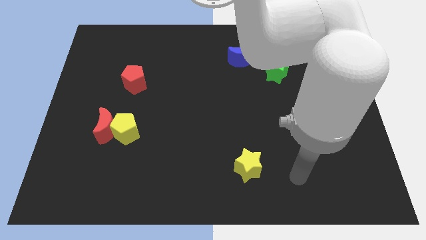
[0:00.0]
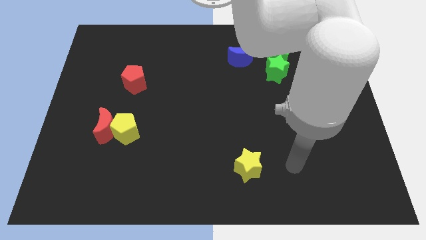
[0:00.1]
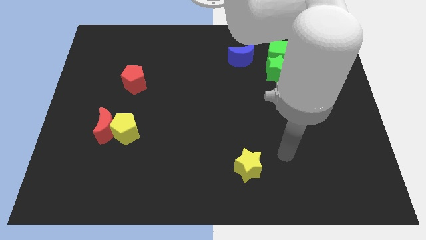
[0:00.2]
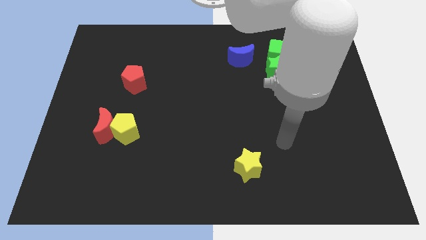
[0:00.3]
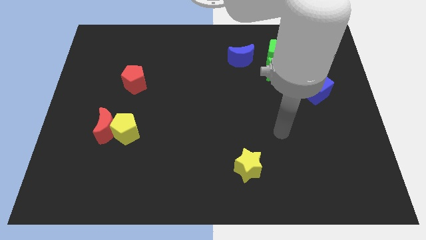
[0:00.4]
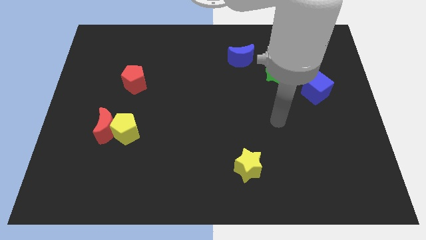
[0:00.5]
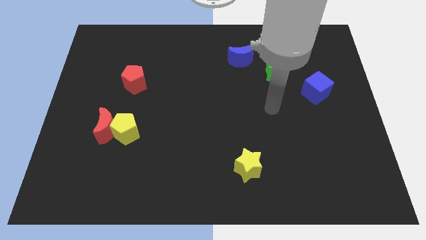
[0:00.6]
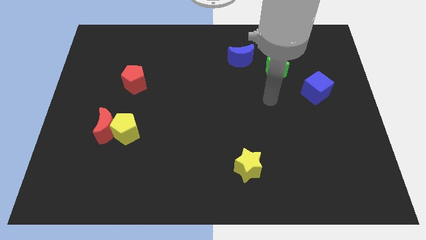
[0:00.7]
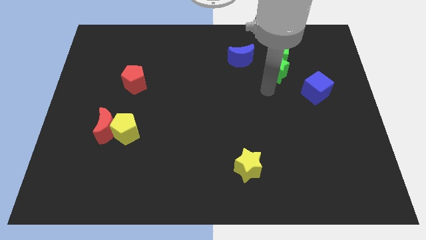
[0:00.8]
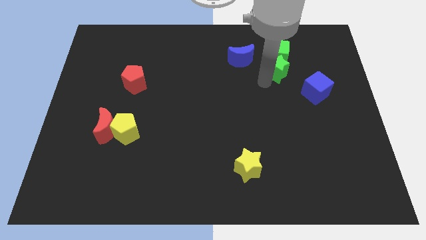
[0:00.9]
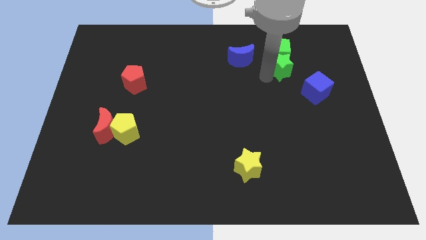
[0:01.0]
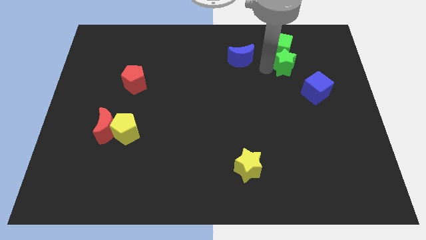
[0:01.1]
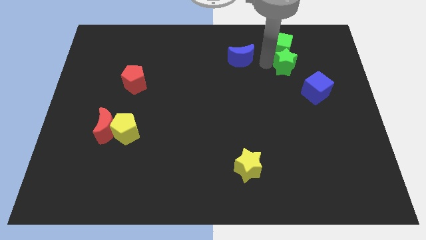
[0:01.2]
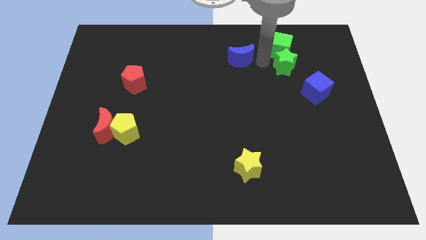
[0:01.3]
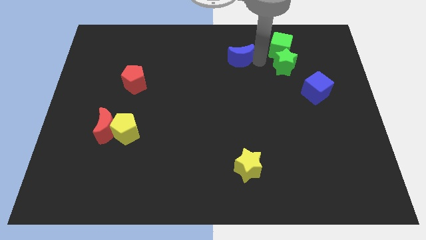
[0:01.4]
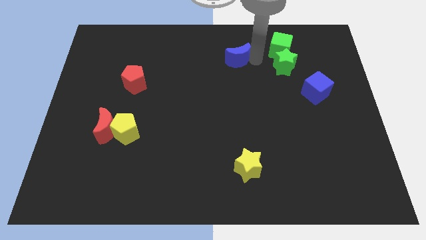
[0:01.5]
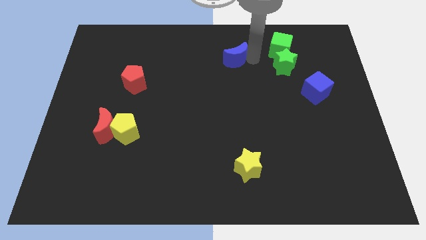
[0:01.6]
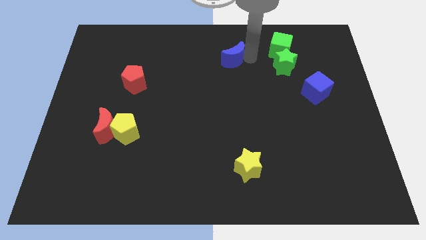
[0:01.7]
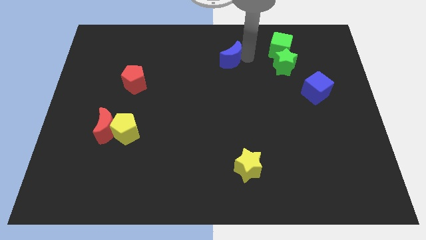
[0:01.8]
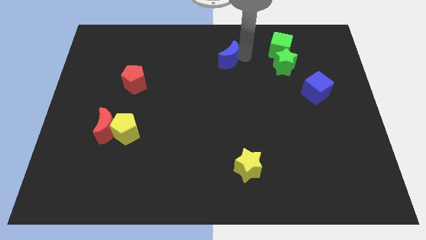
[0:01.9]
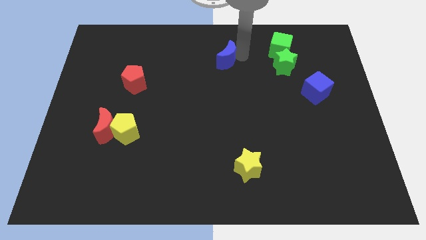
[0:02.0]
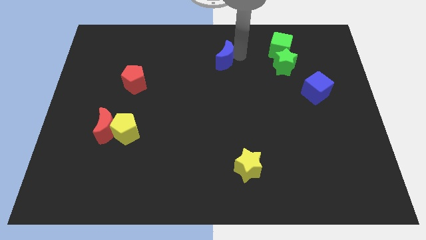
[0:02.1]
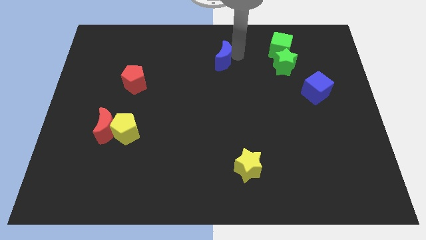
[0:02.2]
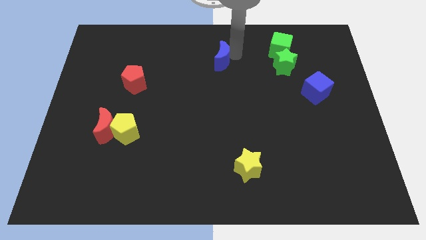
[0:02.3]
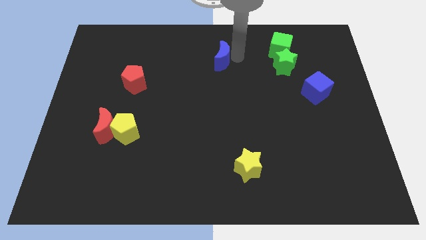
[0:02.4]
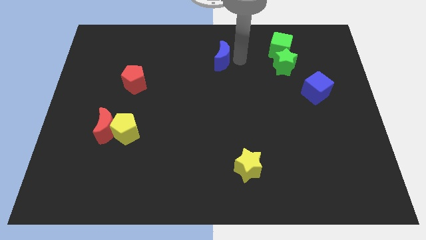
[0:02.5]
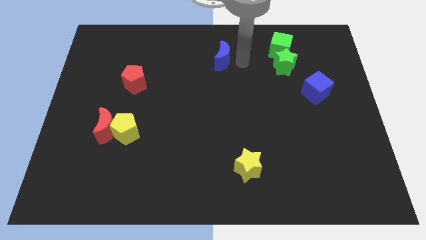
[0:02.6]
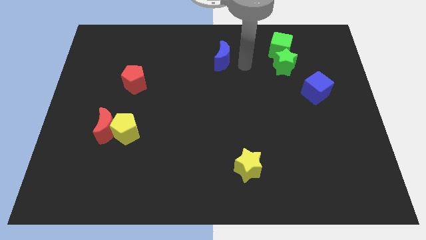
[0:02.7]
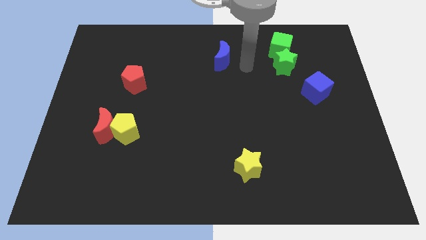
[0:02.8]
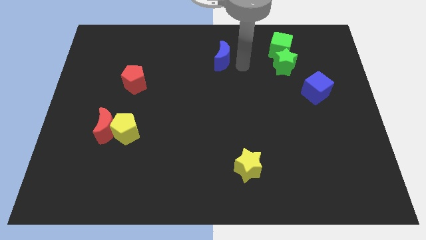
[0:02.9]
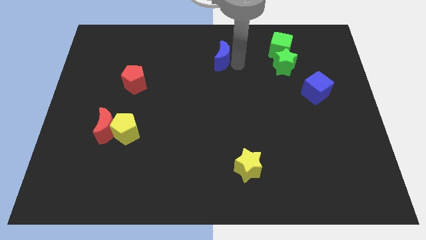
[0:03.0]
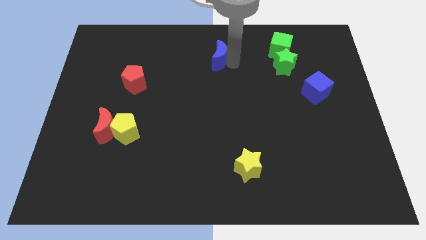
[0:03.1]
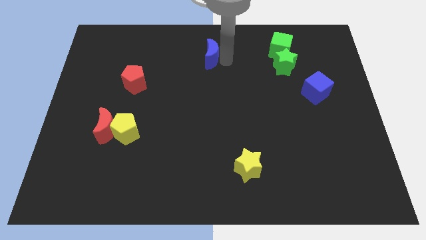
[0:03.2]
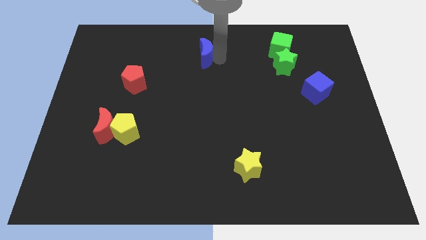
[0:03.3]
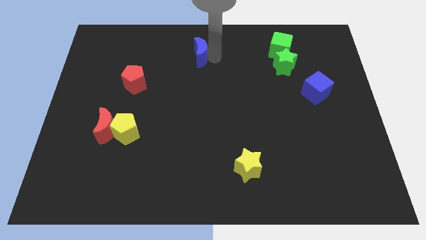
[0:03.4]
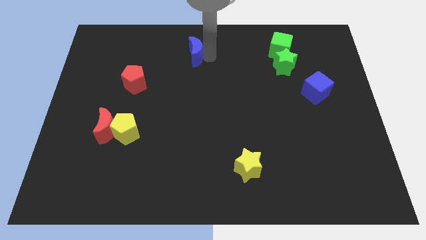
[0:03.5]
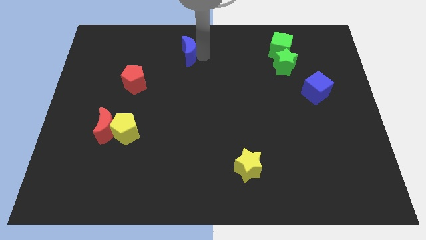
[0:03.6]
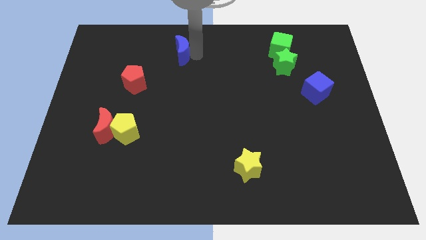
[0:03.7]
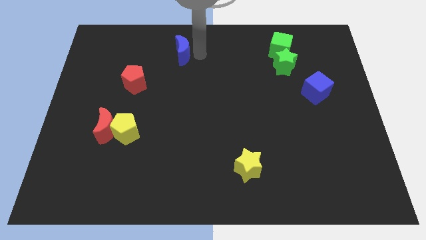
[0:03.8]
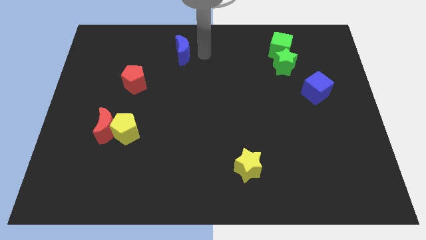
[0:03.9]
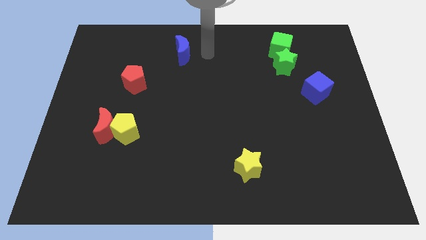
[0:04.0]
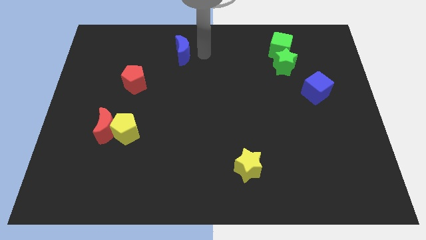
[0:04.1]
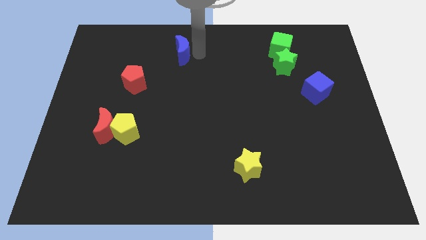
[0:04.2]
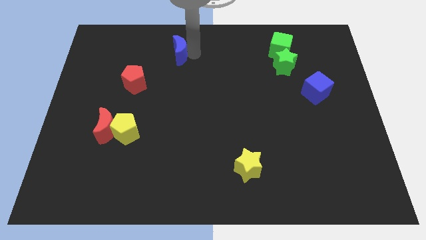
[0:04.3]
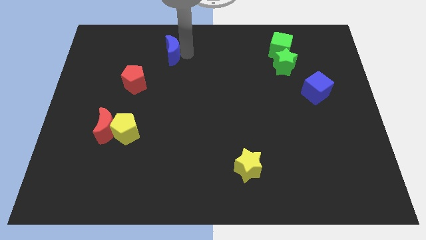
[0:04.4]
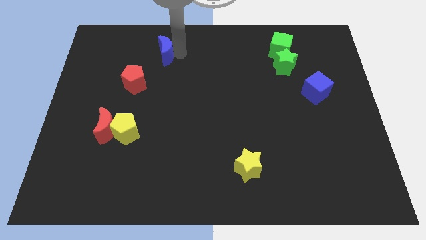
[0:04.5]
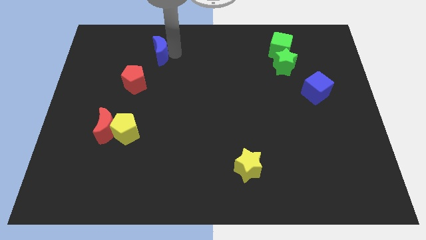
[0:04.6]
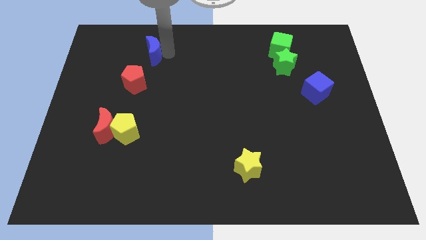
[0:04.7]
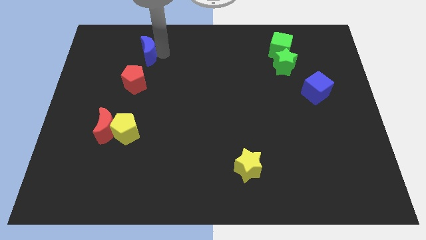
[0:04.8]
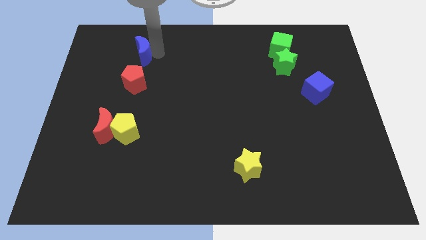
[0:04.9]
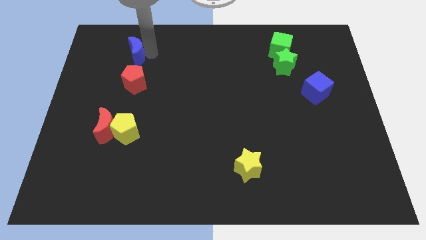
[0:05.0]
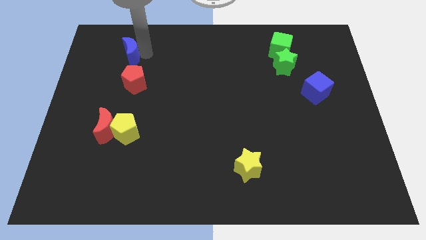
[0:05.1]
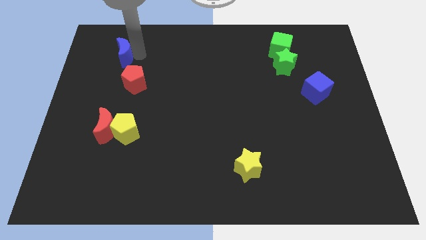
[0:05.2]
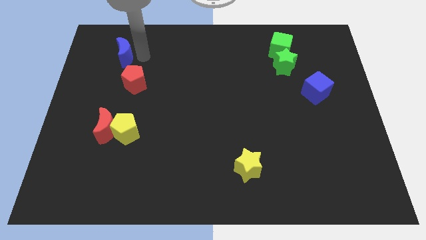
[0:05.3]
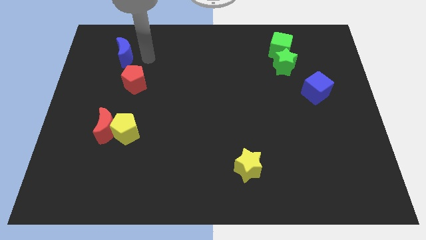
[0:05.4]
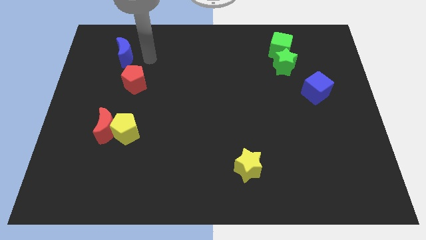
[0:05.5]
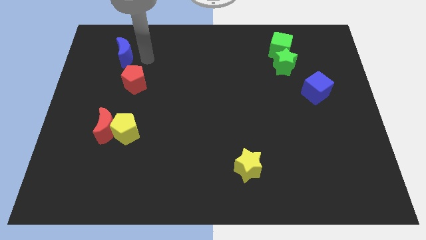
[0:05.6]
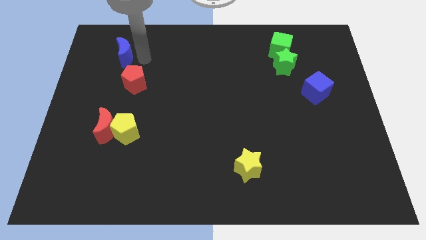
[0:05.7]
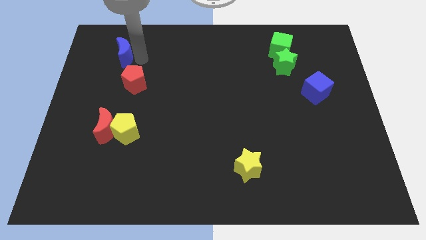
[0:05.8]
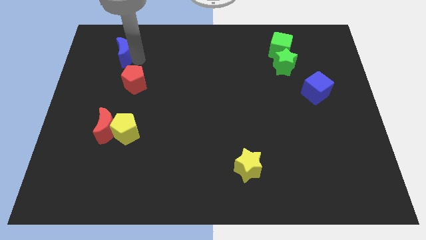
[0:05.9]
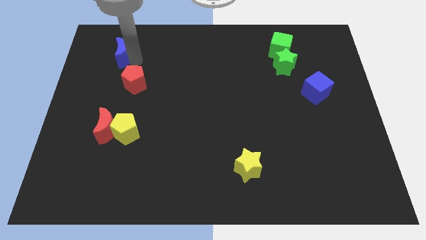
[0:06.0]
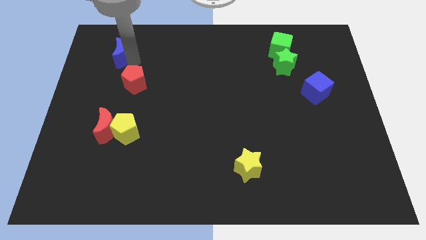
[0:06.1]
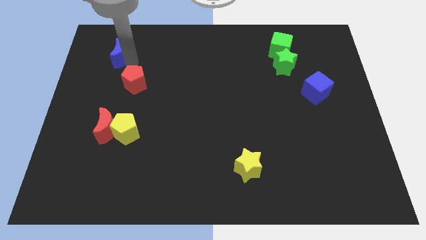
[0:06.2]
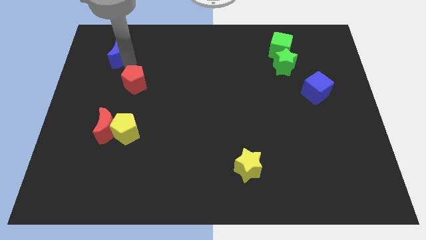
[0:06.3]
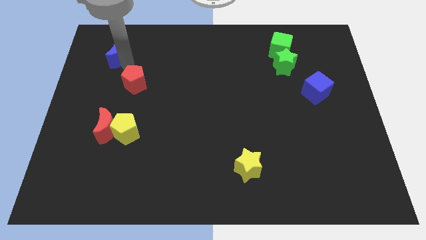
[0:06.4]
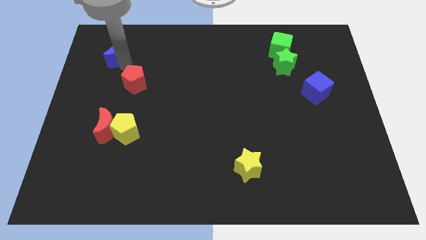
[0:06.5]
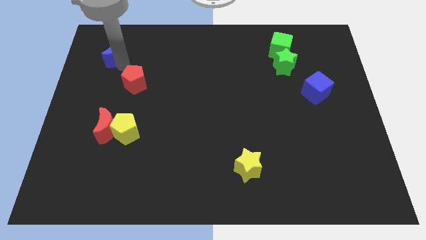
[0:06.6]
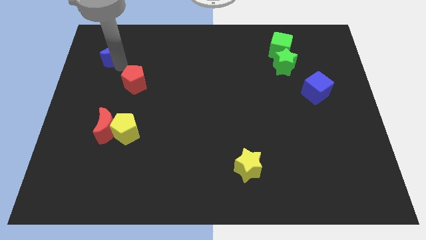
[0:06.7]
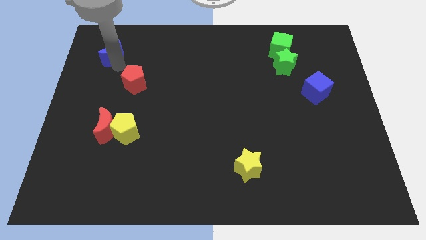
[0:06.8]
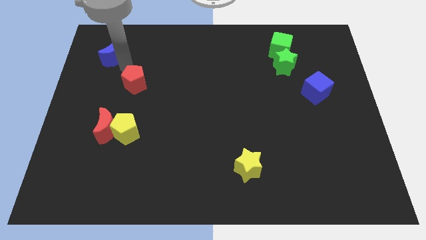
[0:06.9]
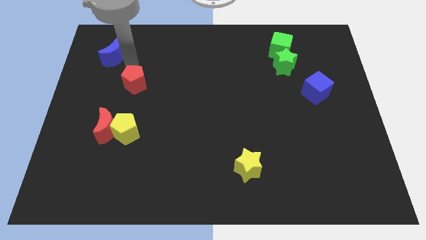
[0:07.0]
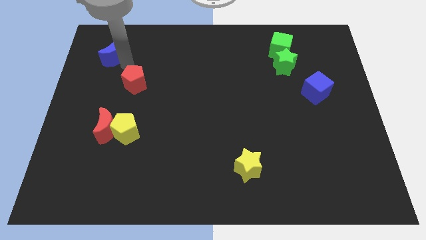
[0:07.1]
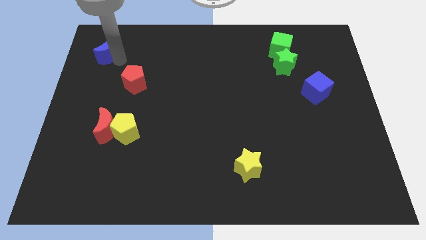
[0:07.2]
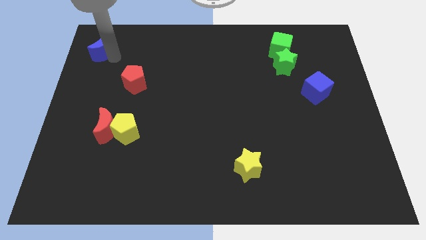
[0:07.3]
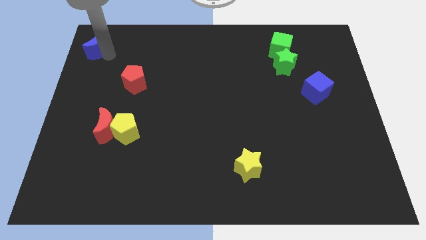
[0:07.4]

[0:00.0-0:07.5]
move the blue moon to the top left corner
